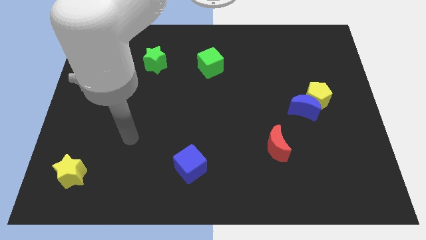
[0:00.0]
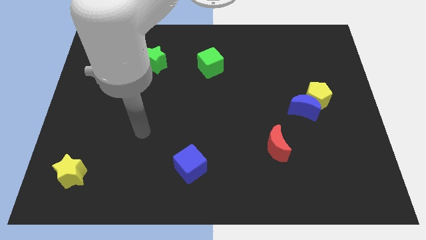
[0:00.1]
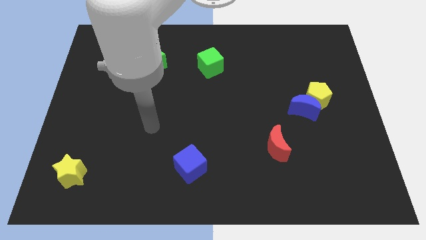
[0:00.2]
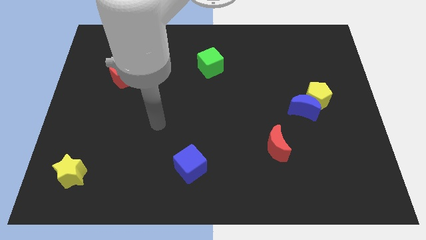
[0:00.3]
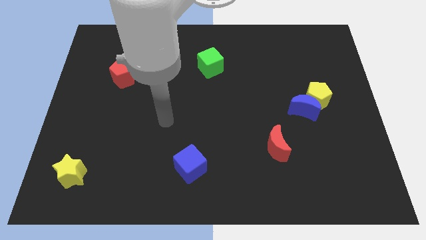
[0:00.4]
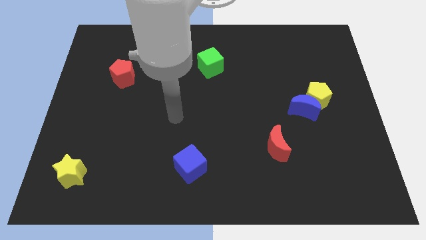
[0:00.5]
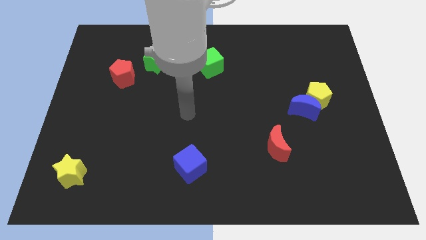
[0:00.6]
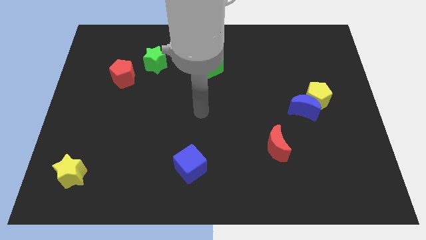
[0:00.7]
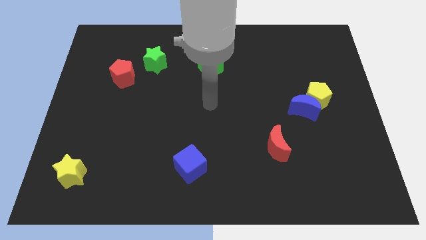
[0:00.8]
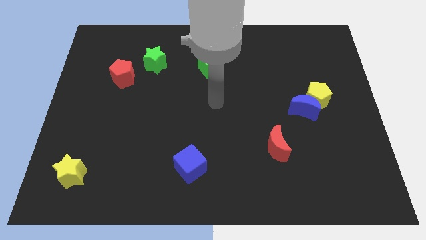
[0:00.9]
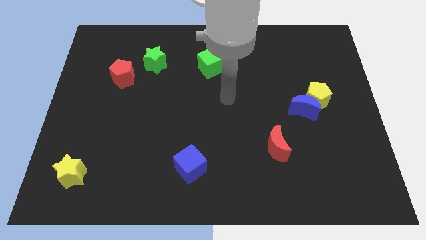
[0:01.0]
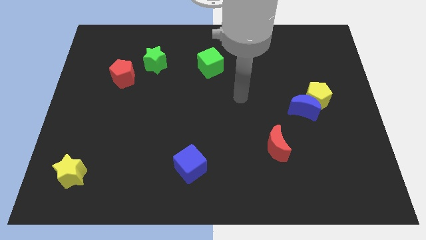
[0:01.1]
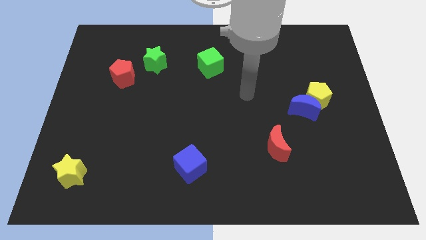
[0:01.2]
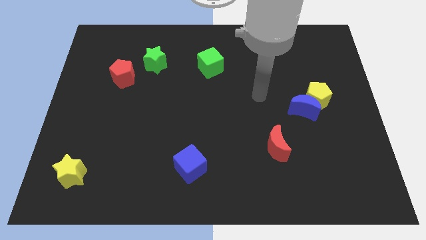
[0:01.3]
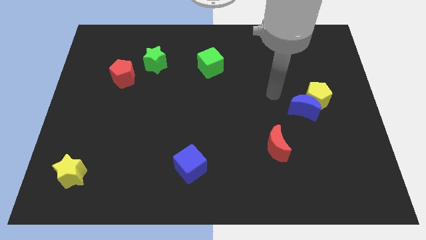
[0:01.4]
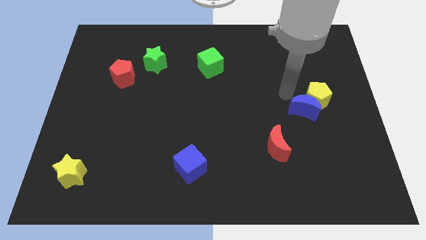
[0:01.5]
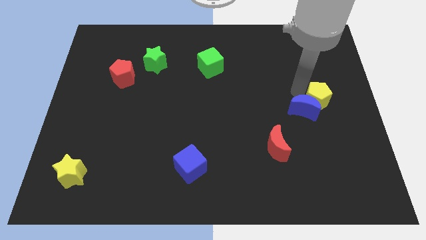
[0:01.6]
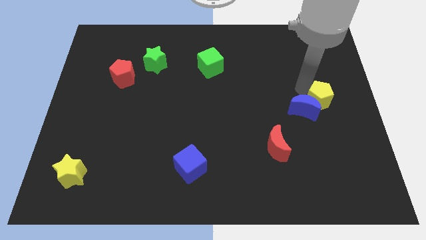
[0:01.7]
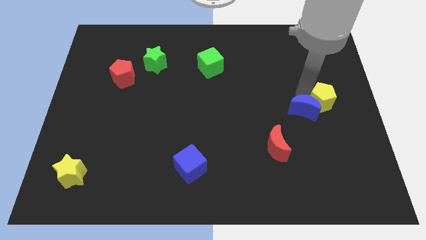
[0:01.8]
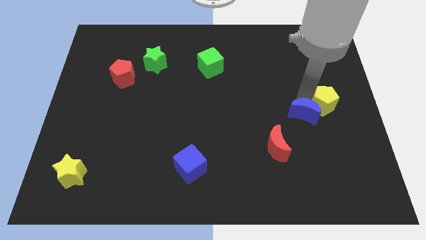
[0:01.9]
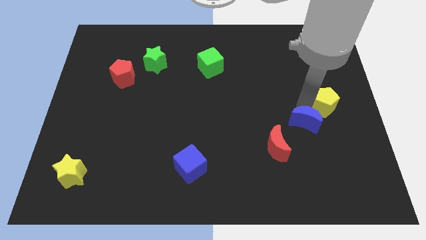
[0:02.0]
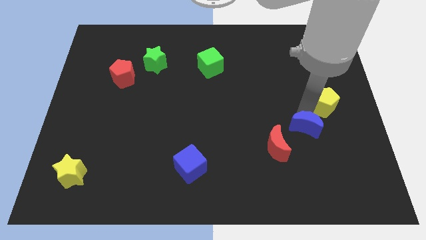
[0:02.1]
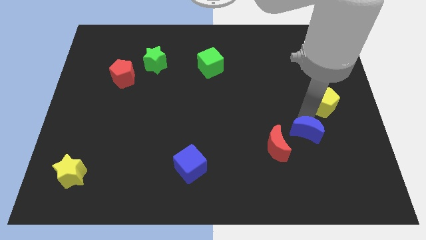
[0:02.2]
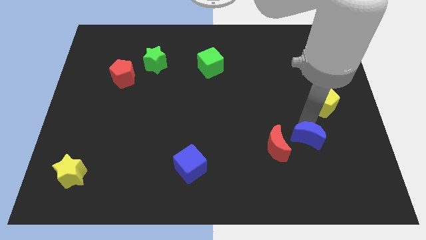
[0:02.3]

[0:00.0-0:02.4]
move the blue moon away from the yellow pentagon

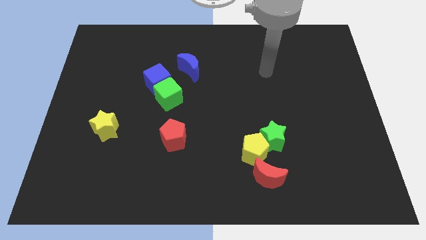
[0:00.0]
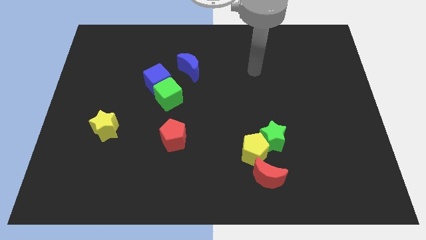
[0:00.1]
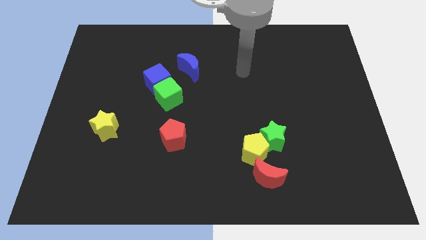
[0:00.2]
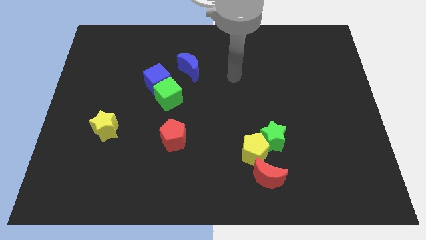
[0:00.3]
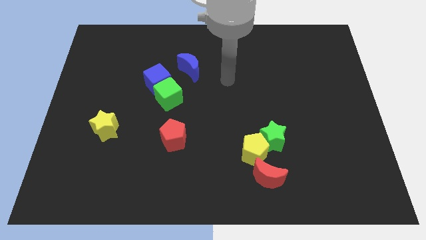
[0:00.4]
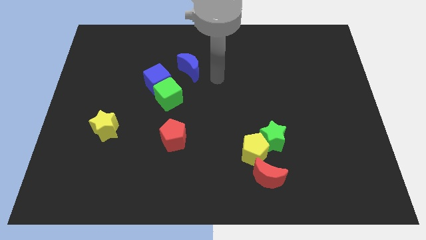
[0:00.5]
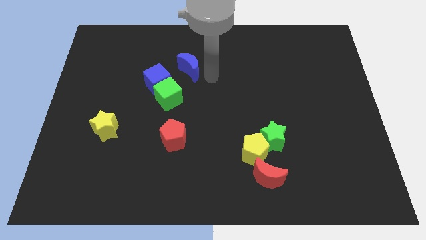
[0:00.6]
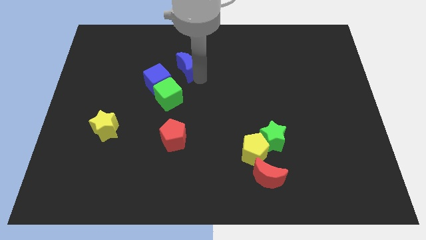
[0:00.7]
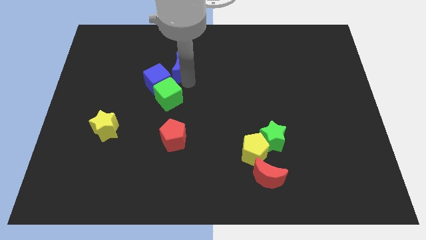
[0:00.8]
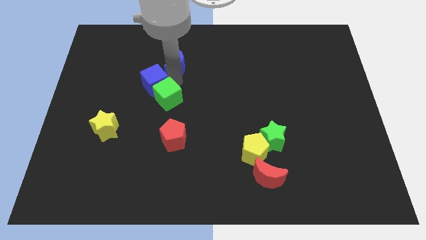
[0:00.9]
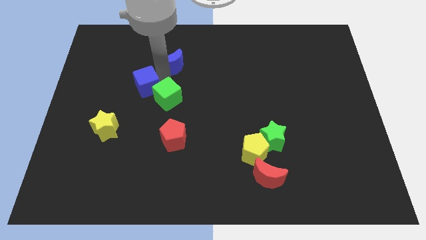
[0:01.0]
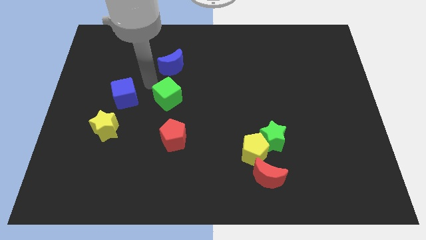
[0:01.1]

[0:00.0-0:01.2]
pull the green cube apart from the blue cube

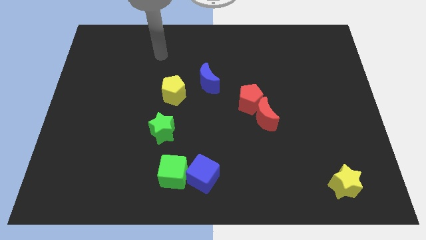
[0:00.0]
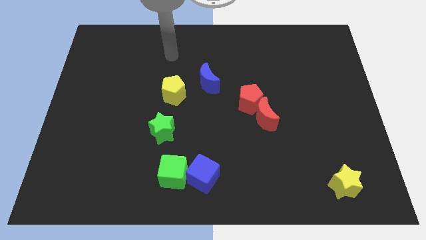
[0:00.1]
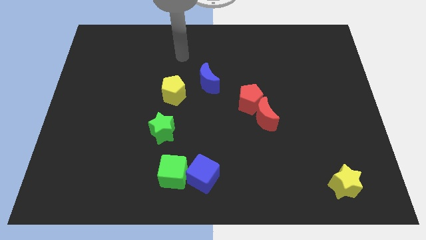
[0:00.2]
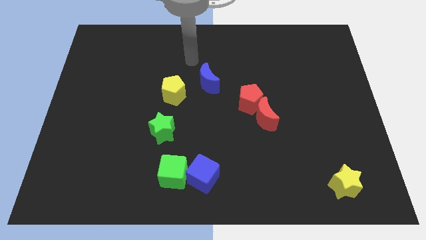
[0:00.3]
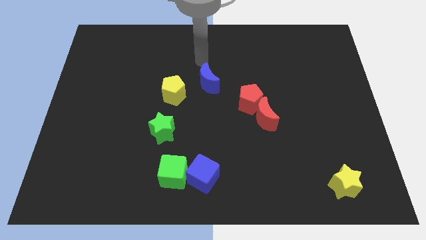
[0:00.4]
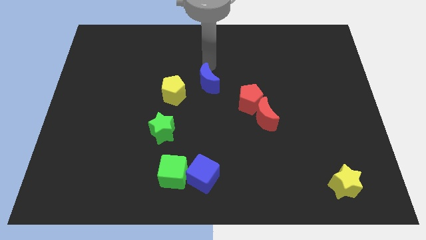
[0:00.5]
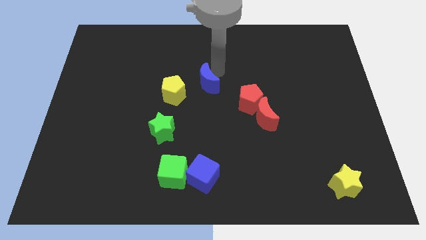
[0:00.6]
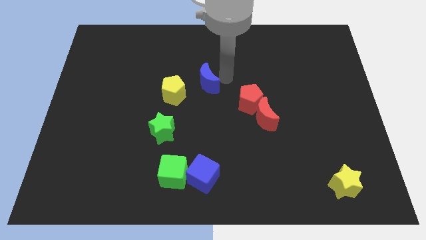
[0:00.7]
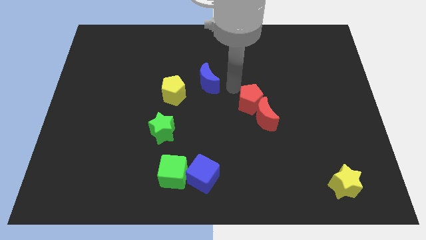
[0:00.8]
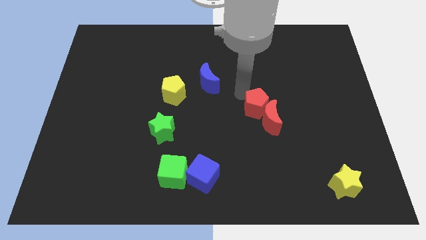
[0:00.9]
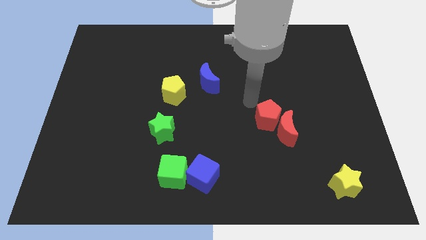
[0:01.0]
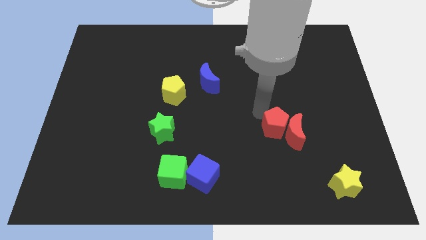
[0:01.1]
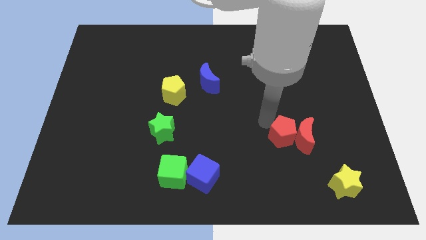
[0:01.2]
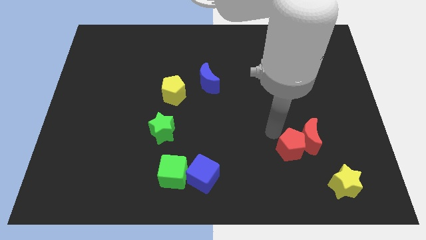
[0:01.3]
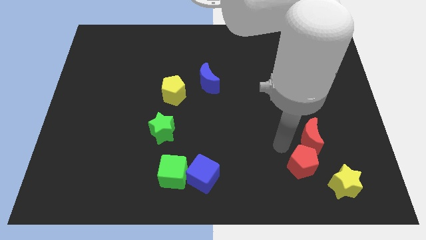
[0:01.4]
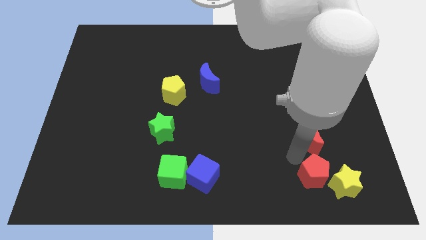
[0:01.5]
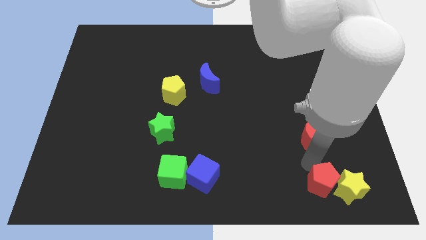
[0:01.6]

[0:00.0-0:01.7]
move the red moon away from the red pentagon

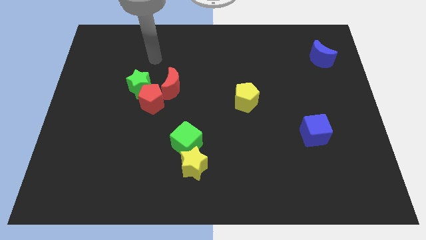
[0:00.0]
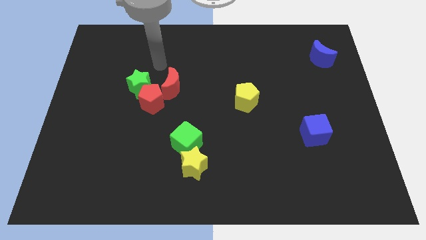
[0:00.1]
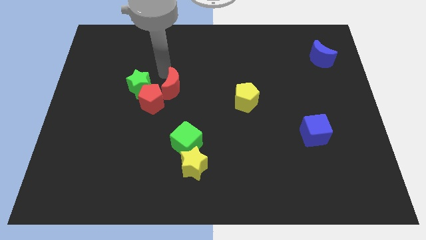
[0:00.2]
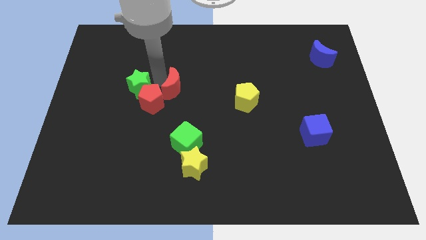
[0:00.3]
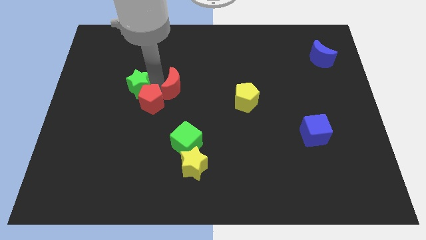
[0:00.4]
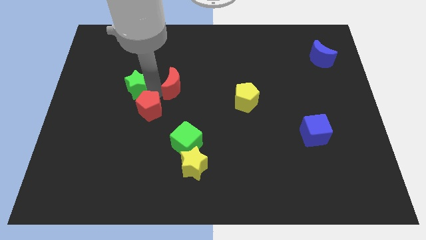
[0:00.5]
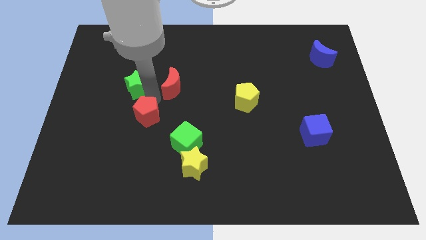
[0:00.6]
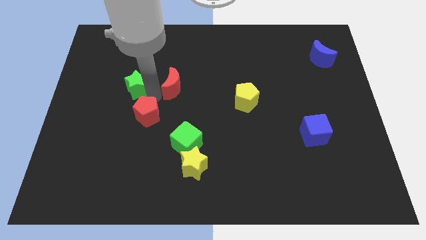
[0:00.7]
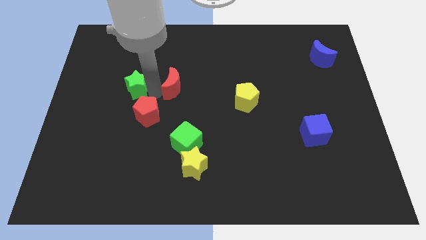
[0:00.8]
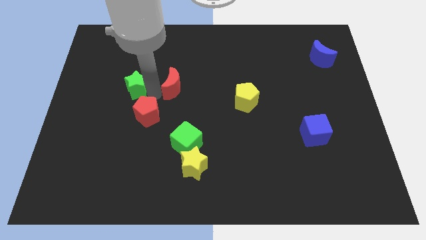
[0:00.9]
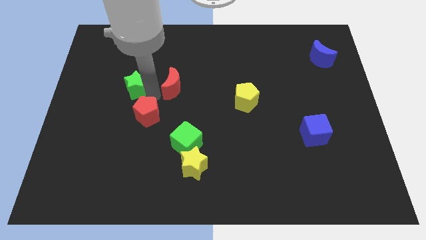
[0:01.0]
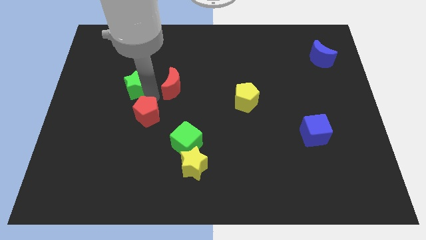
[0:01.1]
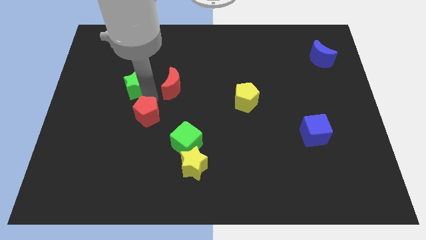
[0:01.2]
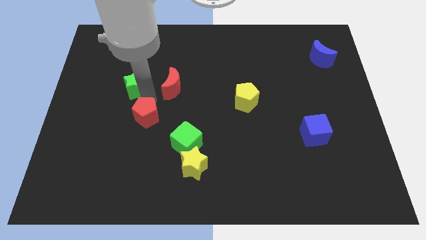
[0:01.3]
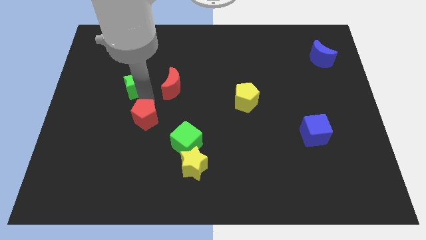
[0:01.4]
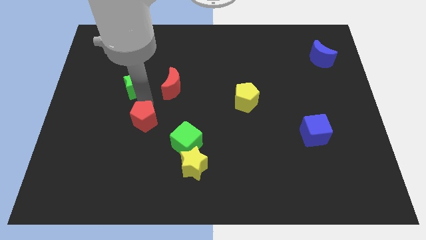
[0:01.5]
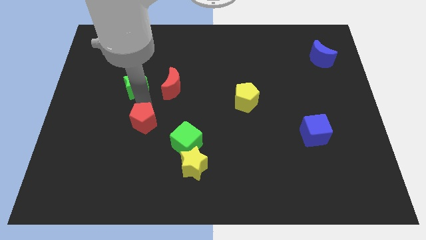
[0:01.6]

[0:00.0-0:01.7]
separate the red pentagon from the green star and red moon

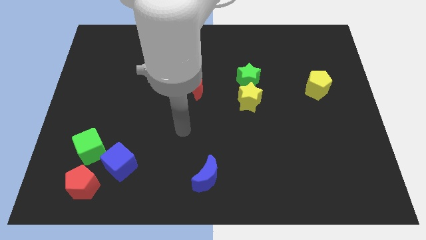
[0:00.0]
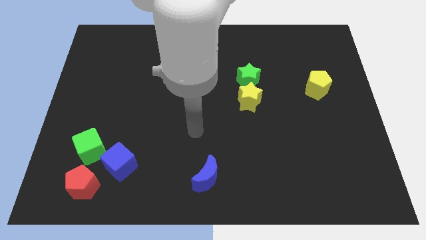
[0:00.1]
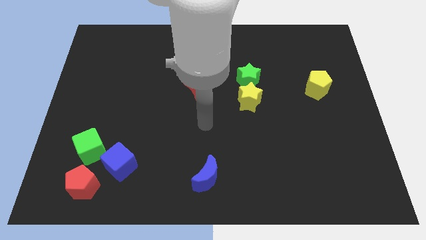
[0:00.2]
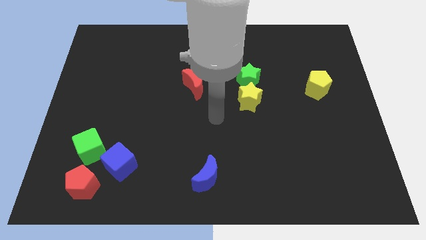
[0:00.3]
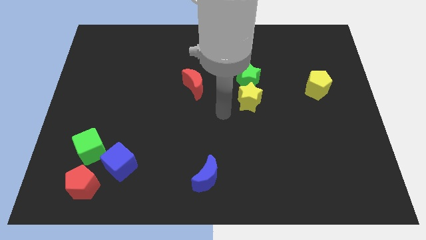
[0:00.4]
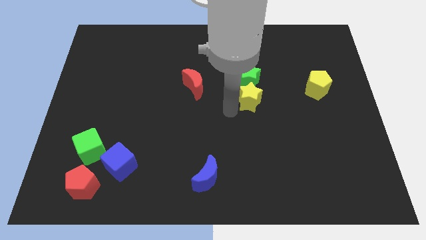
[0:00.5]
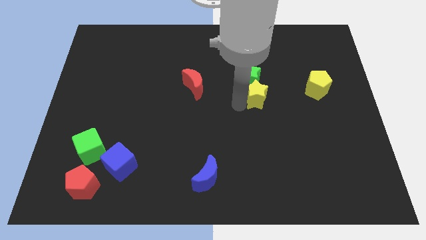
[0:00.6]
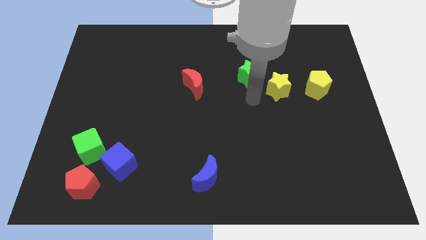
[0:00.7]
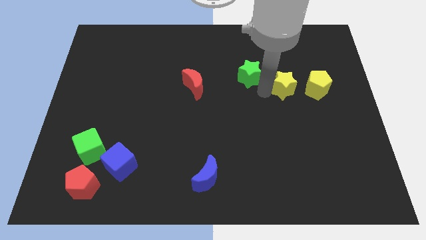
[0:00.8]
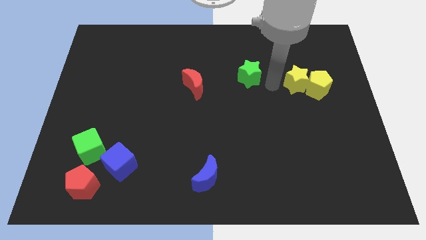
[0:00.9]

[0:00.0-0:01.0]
pull the green star apart from the yellow star

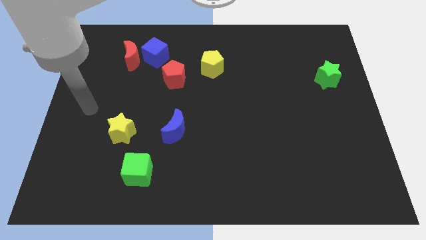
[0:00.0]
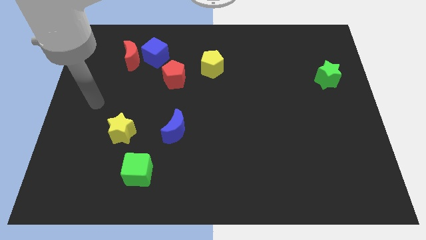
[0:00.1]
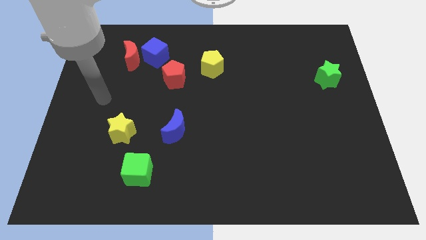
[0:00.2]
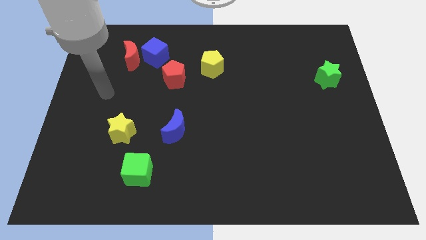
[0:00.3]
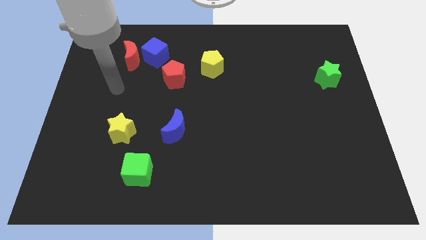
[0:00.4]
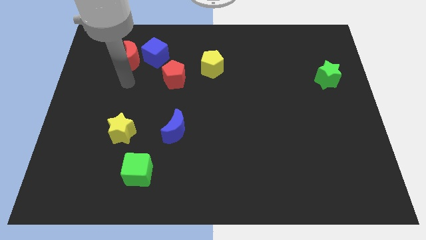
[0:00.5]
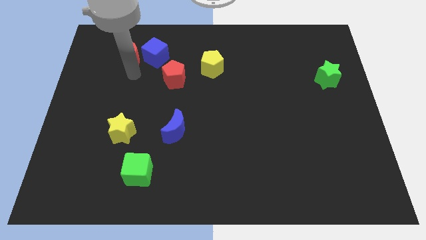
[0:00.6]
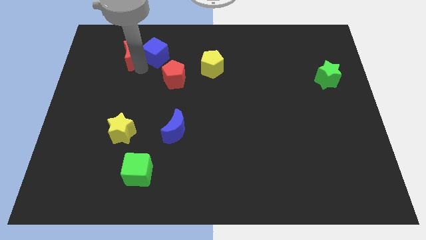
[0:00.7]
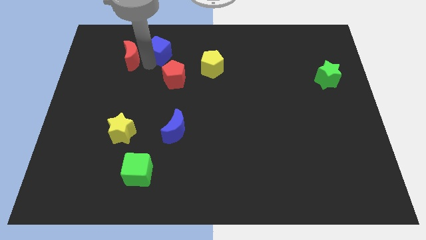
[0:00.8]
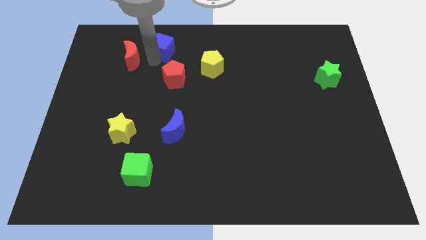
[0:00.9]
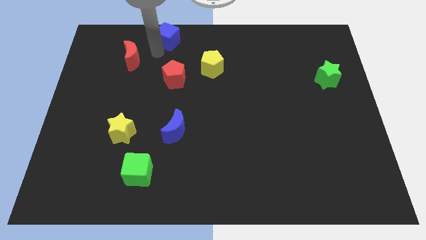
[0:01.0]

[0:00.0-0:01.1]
separate the red moon from the blue cube

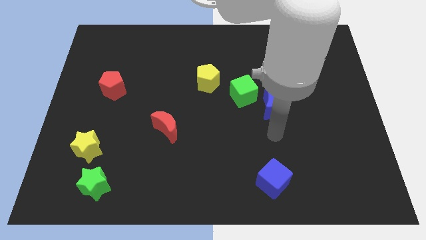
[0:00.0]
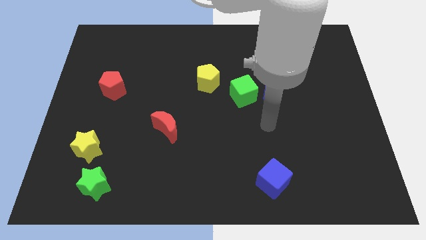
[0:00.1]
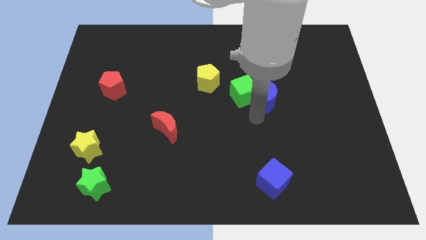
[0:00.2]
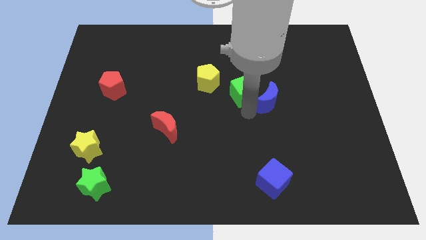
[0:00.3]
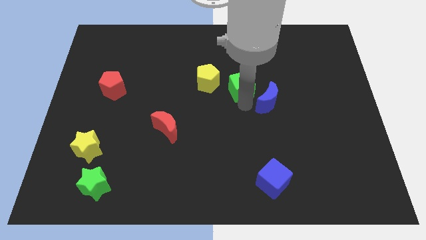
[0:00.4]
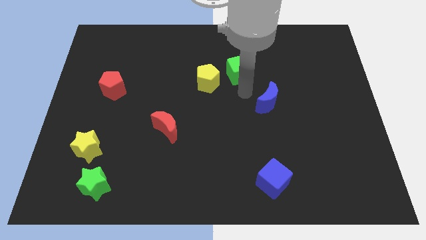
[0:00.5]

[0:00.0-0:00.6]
separate the blue moon from the green cube
